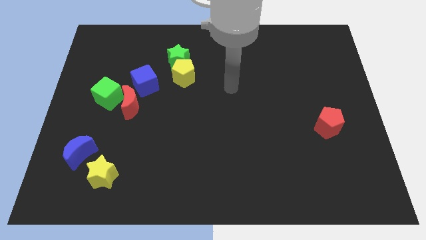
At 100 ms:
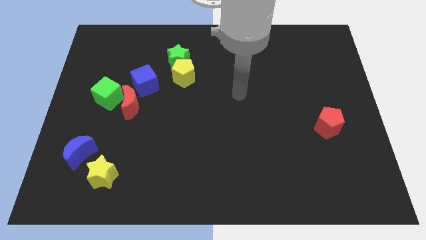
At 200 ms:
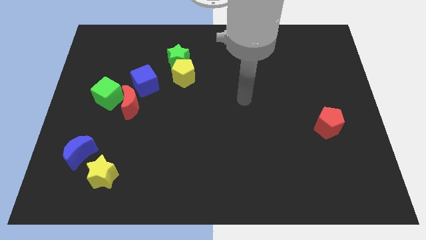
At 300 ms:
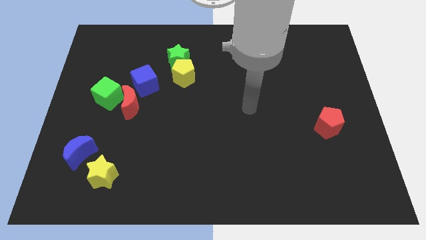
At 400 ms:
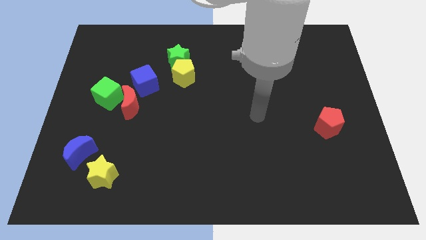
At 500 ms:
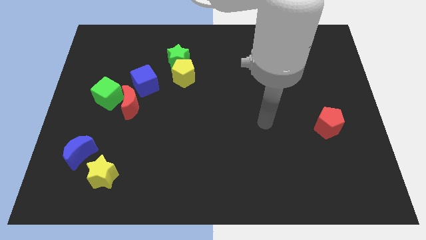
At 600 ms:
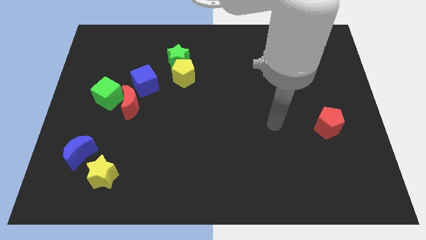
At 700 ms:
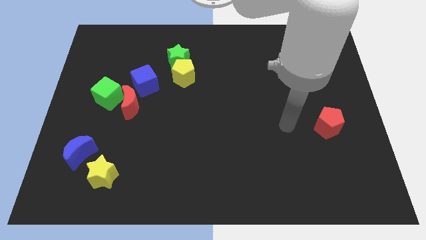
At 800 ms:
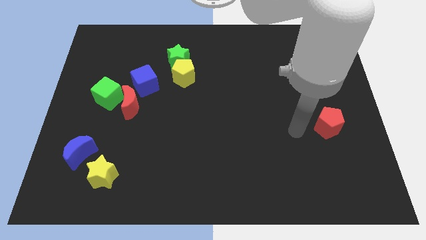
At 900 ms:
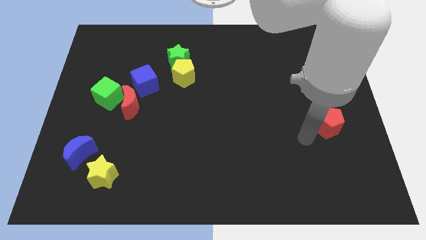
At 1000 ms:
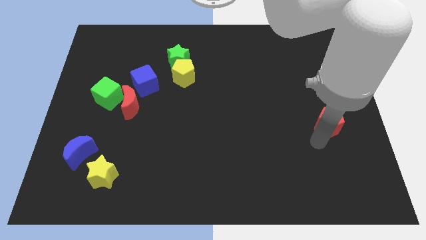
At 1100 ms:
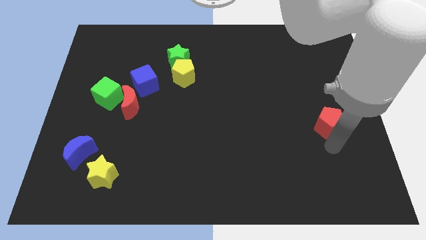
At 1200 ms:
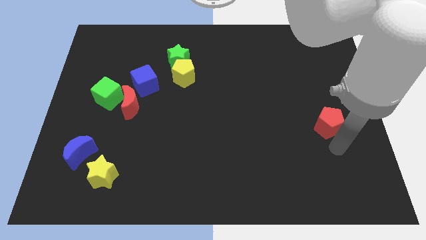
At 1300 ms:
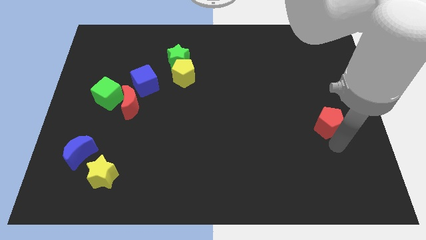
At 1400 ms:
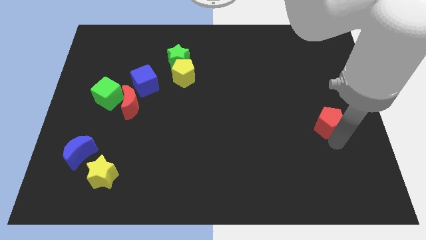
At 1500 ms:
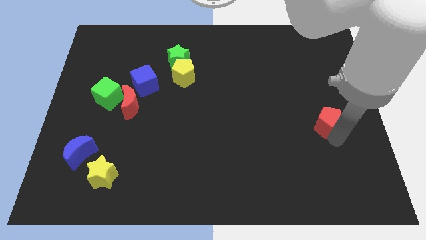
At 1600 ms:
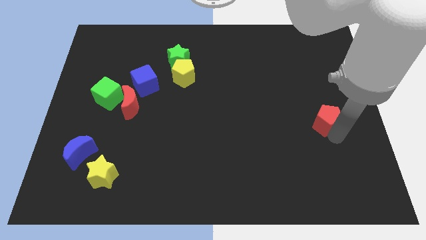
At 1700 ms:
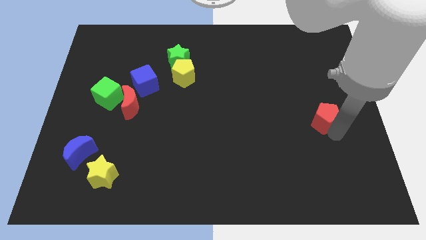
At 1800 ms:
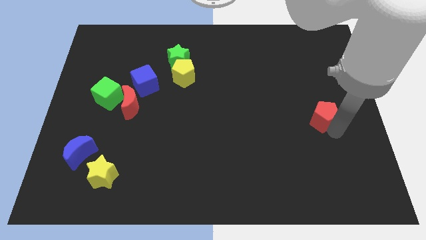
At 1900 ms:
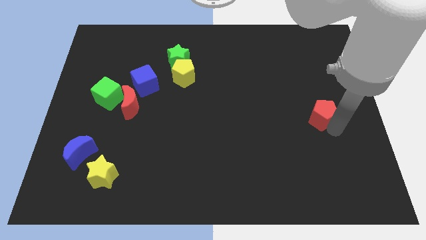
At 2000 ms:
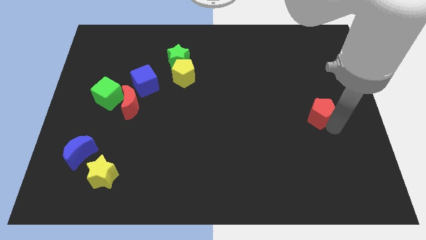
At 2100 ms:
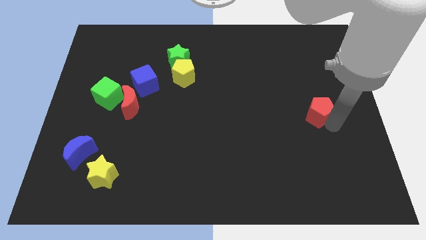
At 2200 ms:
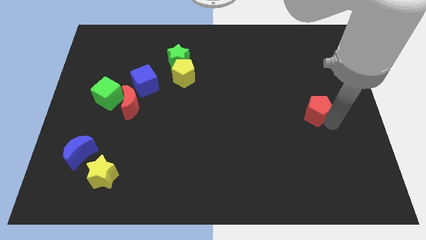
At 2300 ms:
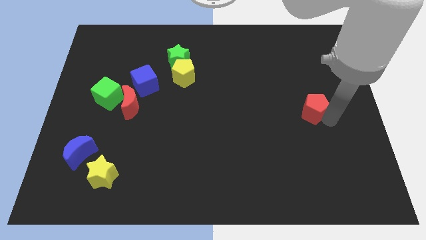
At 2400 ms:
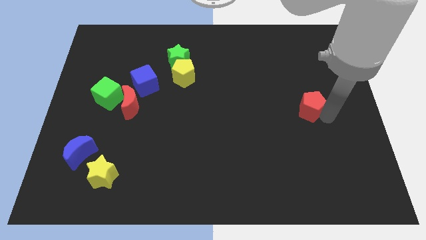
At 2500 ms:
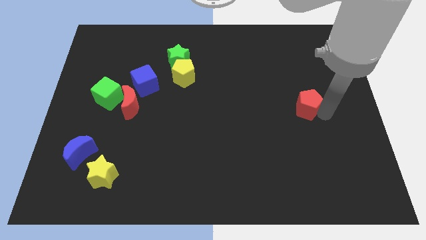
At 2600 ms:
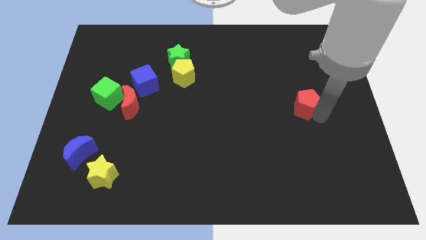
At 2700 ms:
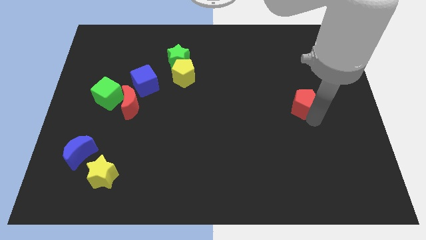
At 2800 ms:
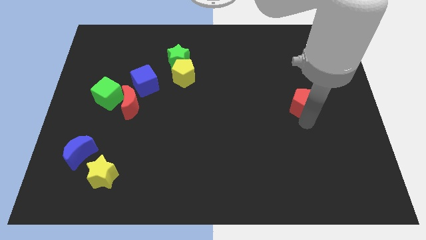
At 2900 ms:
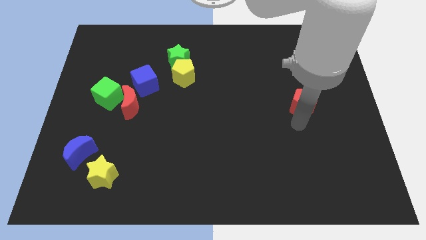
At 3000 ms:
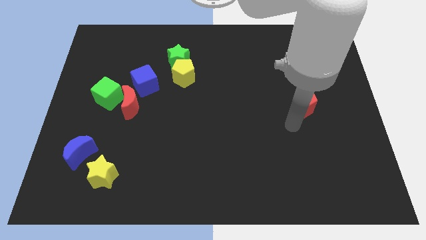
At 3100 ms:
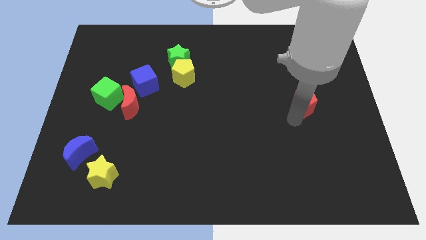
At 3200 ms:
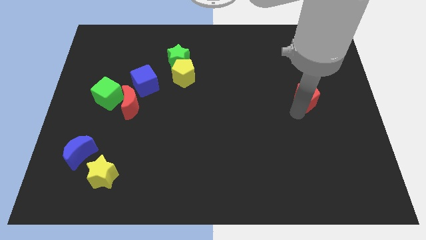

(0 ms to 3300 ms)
slightly move the red pentagon up

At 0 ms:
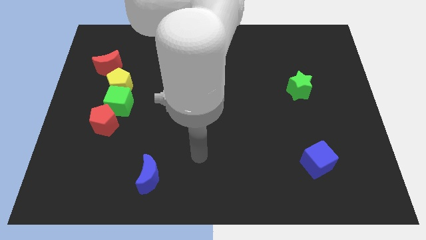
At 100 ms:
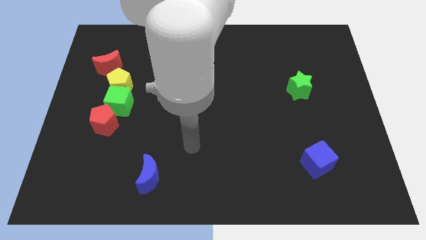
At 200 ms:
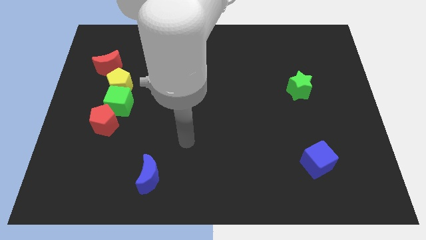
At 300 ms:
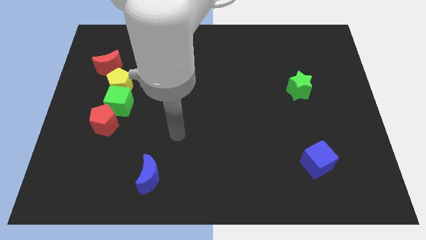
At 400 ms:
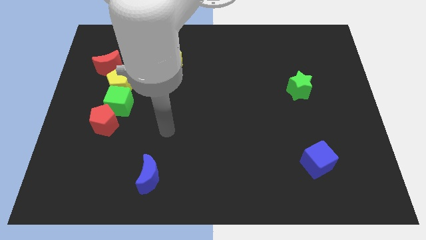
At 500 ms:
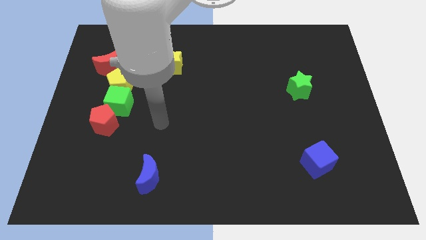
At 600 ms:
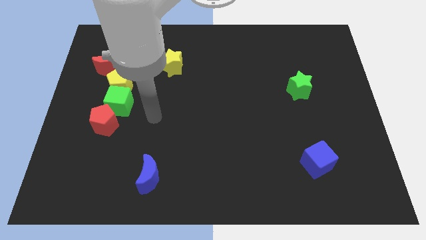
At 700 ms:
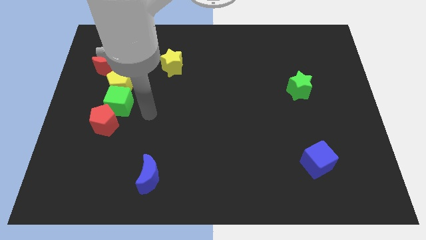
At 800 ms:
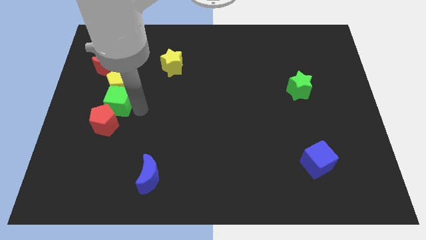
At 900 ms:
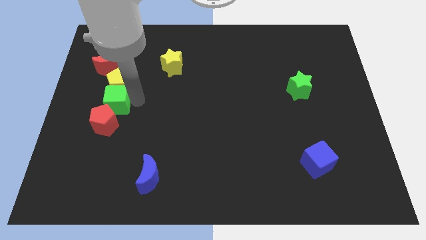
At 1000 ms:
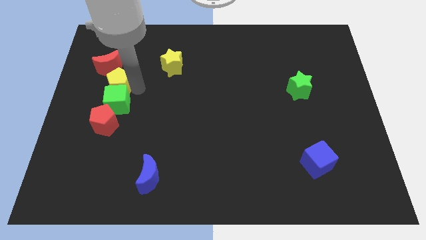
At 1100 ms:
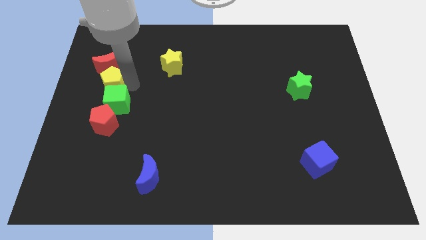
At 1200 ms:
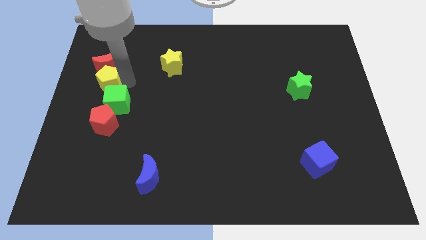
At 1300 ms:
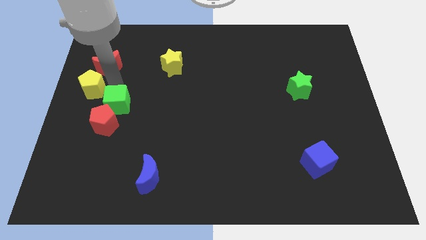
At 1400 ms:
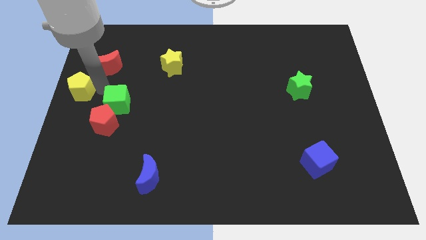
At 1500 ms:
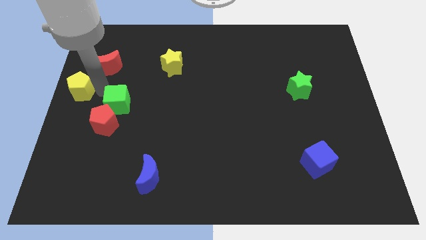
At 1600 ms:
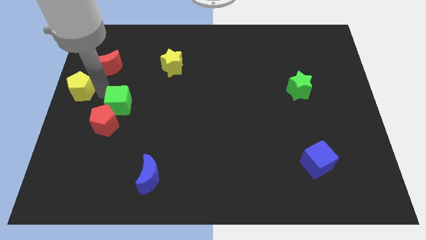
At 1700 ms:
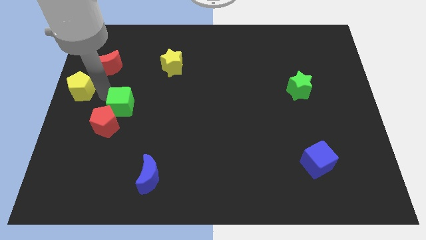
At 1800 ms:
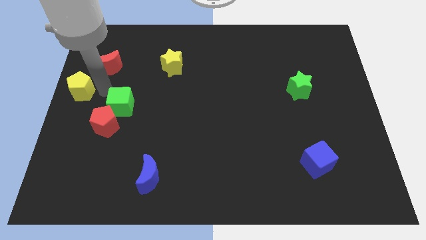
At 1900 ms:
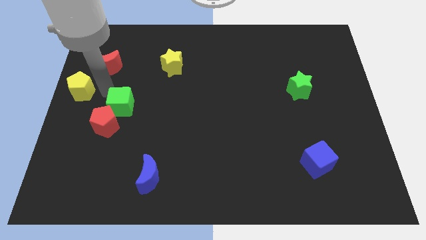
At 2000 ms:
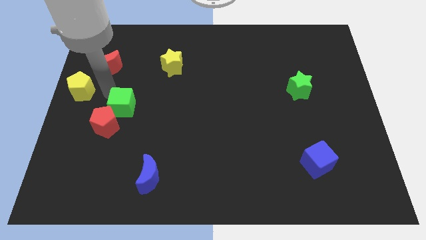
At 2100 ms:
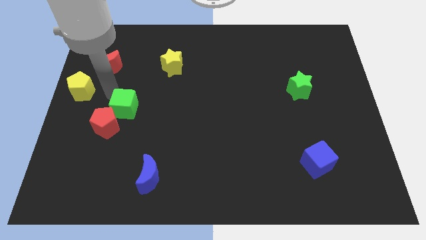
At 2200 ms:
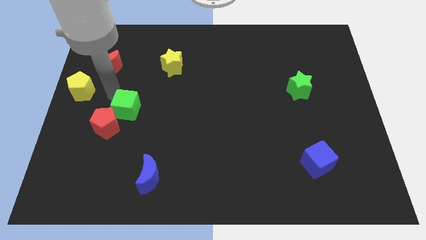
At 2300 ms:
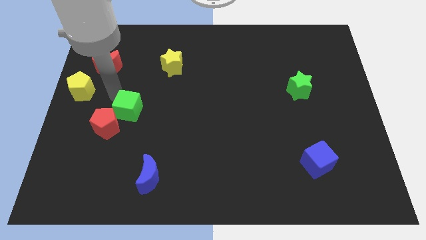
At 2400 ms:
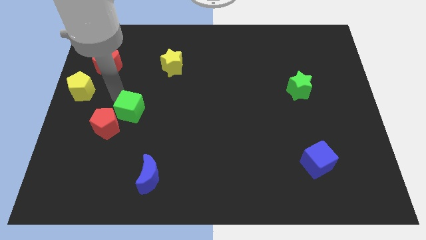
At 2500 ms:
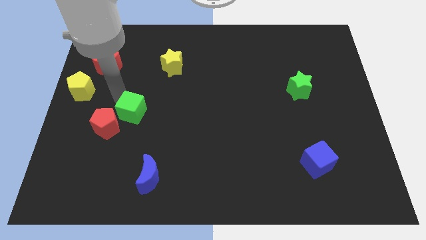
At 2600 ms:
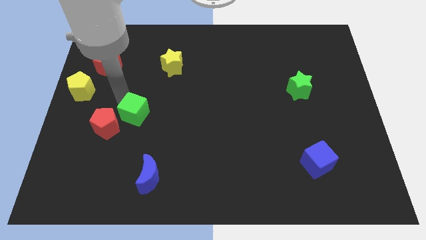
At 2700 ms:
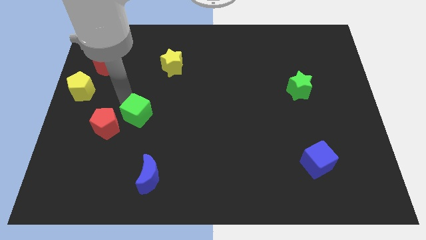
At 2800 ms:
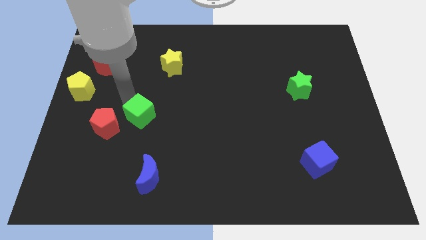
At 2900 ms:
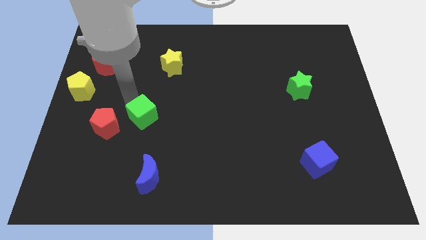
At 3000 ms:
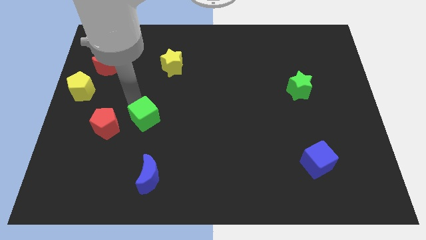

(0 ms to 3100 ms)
move the green cube downwards and right diagonally somewhat

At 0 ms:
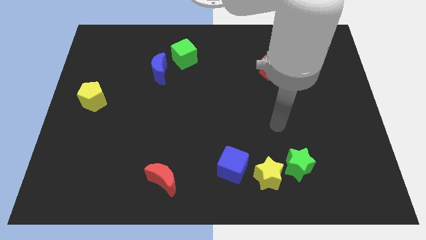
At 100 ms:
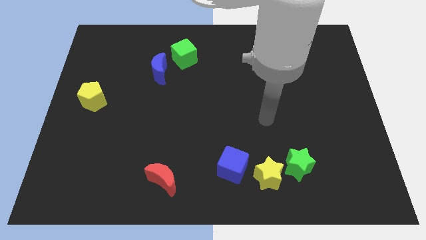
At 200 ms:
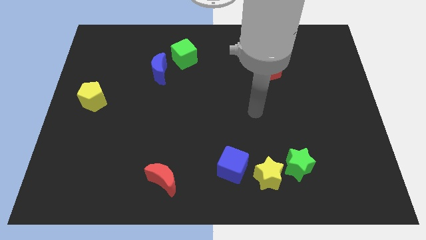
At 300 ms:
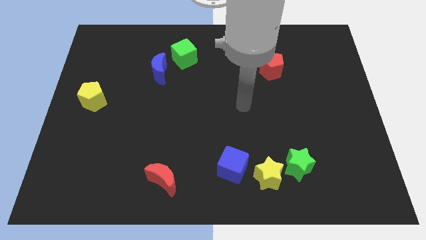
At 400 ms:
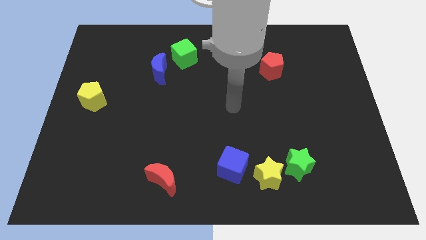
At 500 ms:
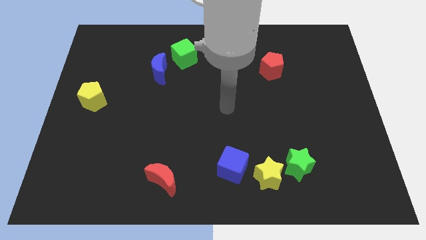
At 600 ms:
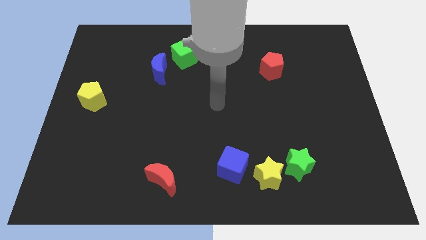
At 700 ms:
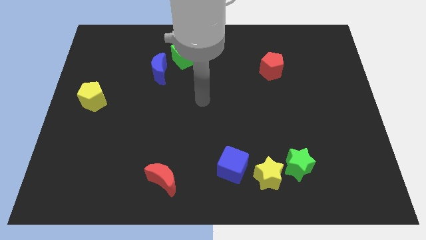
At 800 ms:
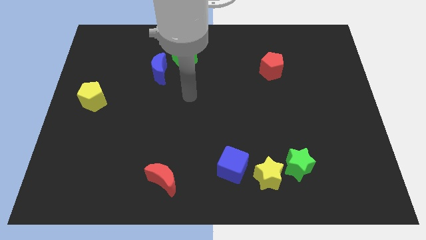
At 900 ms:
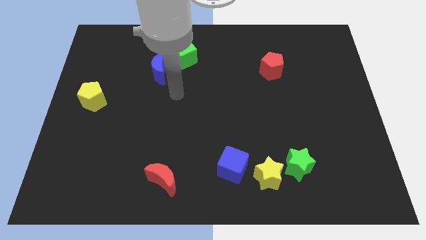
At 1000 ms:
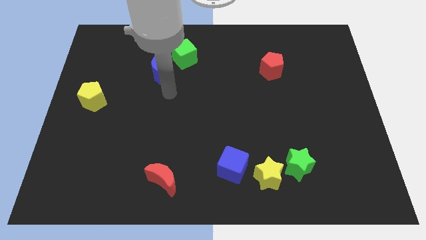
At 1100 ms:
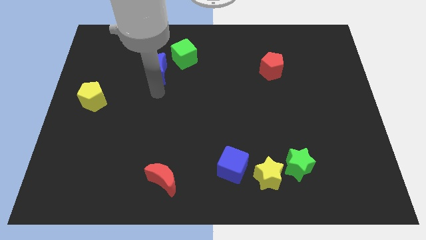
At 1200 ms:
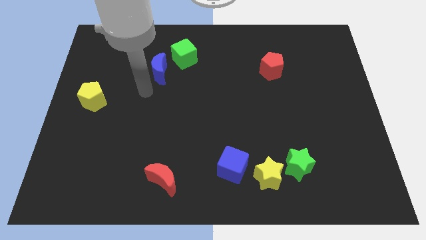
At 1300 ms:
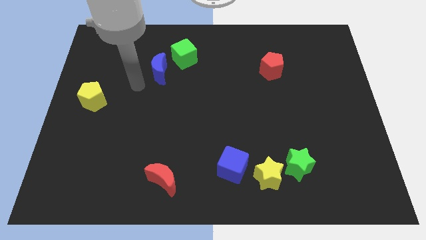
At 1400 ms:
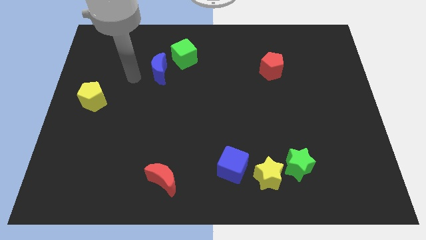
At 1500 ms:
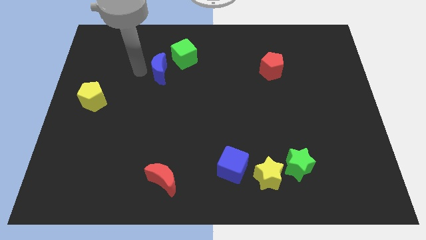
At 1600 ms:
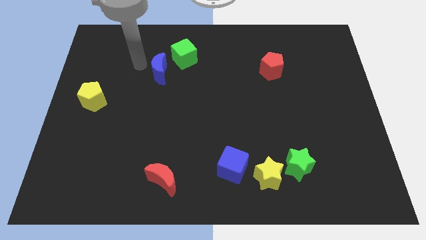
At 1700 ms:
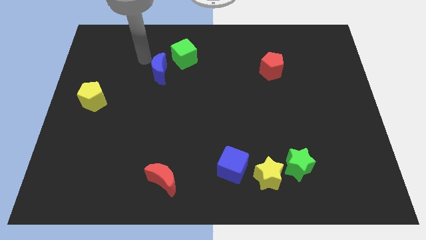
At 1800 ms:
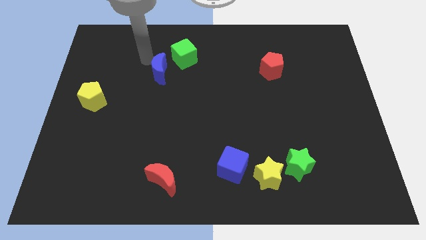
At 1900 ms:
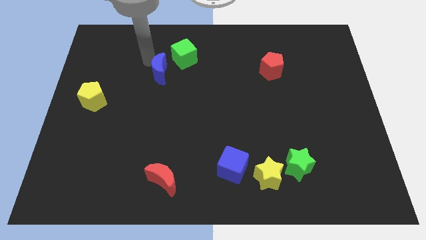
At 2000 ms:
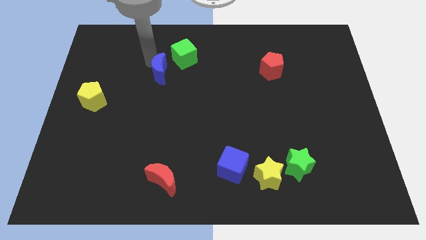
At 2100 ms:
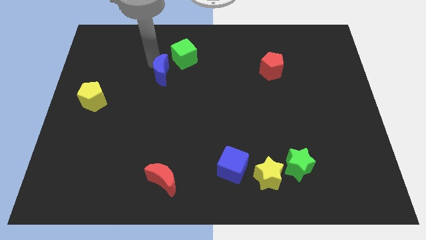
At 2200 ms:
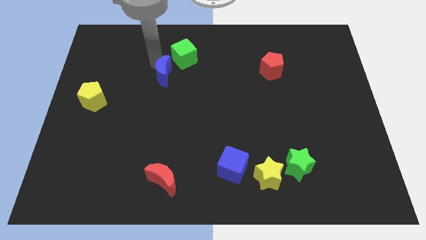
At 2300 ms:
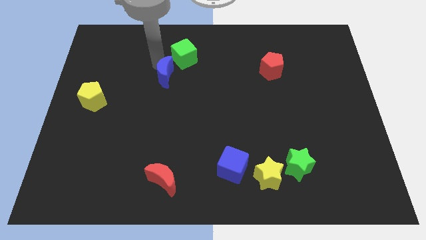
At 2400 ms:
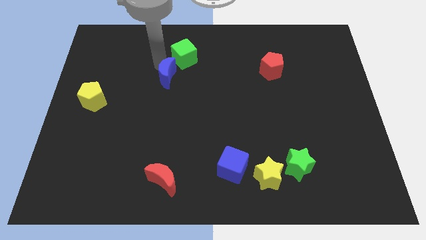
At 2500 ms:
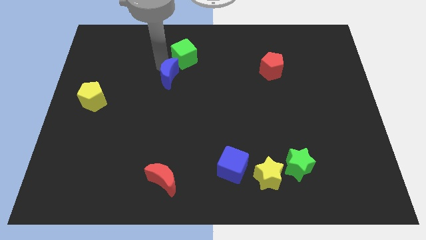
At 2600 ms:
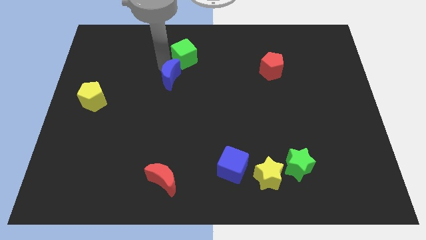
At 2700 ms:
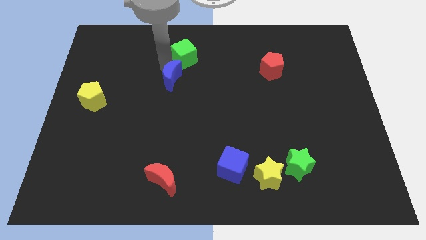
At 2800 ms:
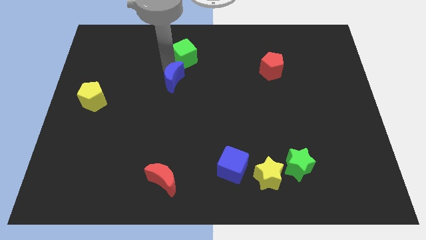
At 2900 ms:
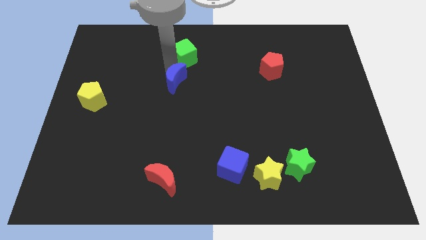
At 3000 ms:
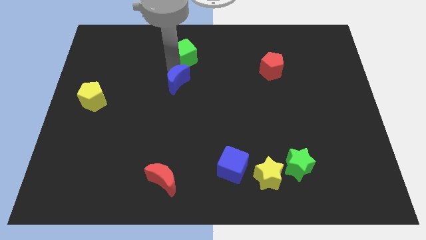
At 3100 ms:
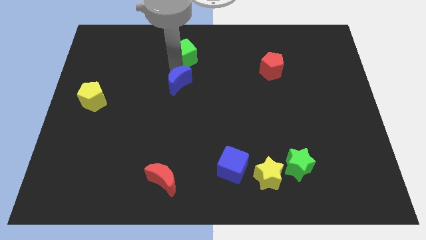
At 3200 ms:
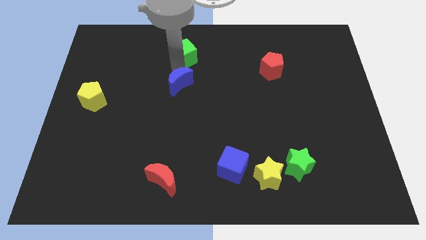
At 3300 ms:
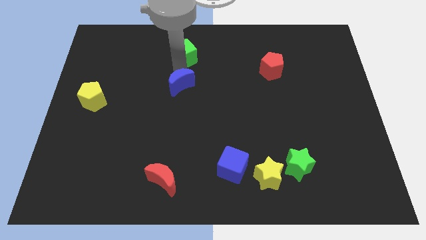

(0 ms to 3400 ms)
move the blue moon a little downwards and right
